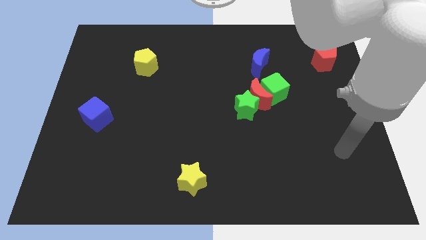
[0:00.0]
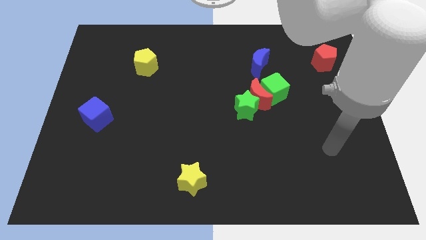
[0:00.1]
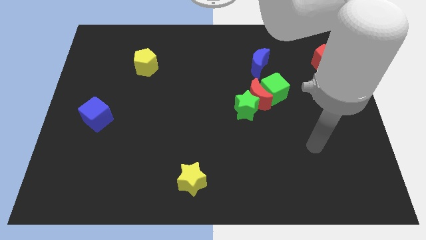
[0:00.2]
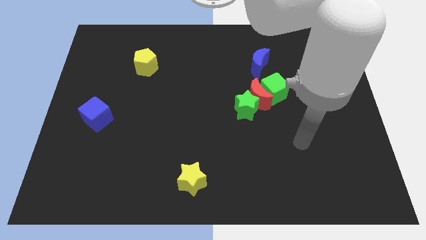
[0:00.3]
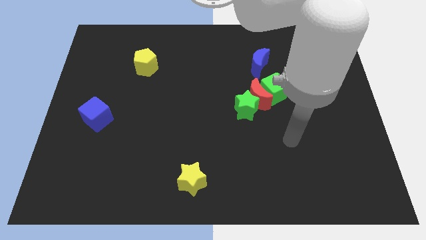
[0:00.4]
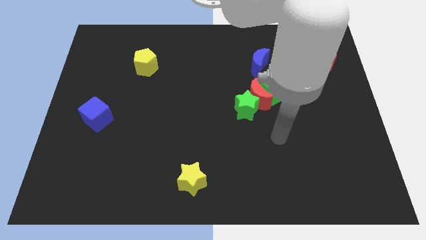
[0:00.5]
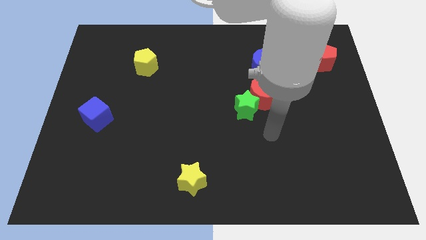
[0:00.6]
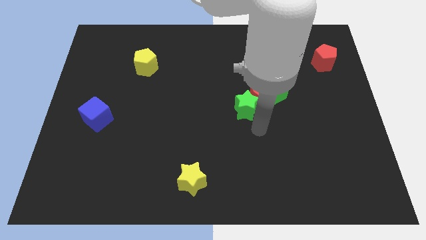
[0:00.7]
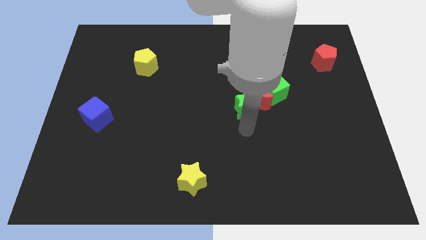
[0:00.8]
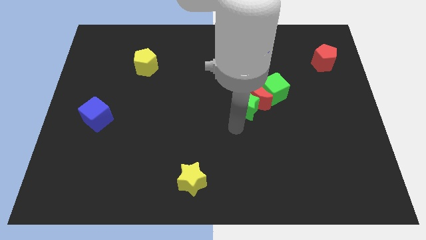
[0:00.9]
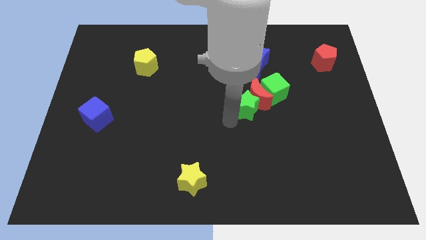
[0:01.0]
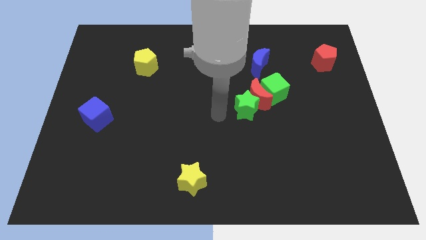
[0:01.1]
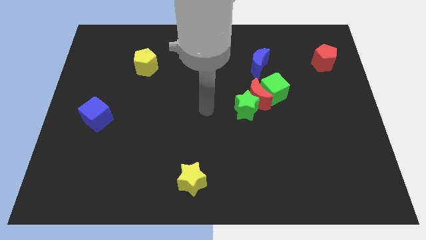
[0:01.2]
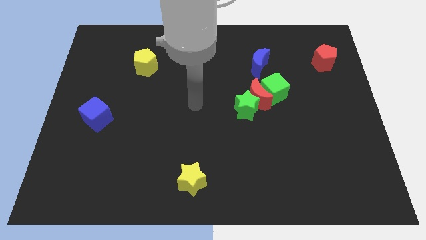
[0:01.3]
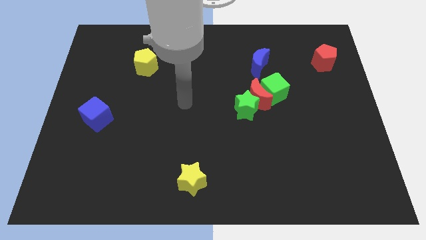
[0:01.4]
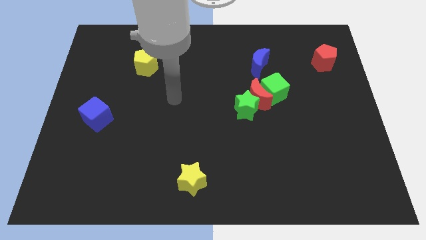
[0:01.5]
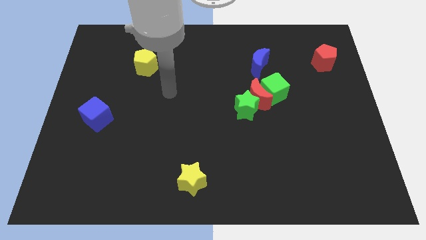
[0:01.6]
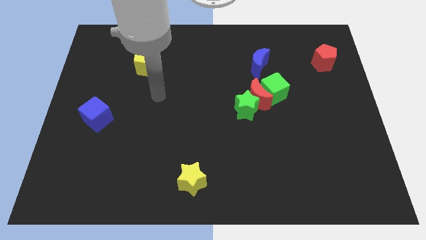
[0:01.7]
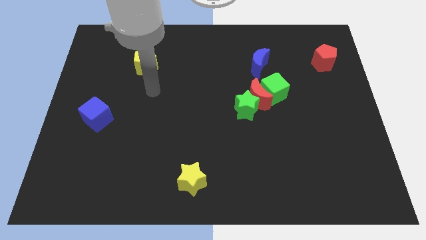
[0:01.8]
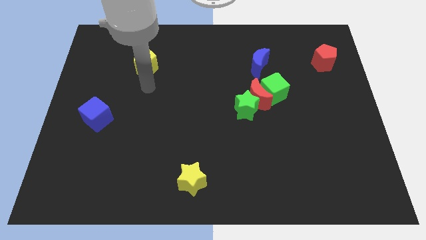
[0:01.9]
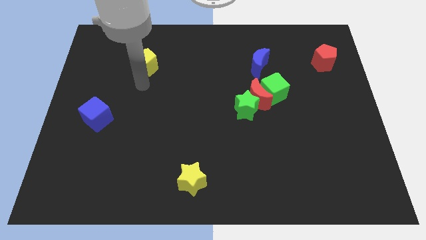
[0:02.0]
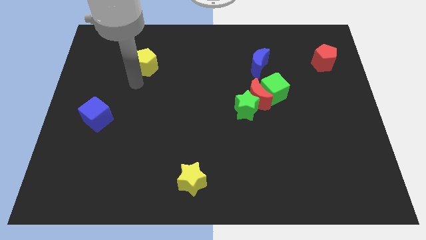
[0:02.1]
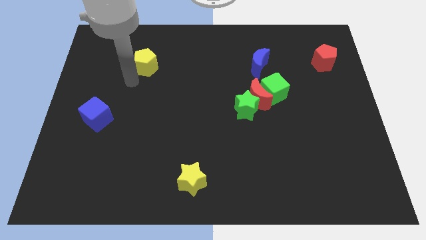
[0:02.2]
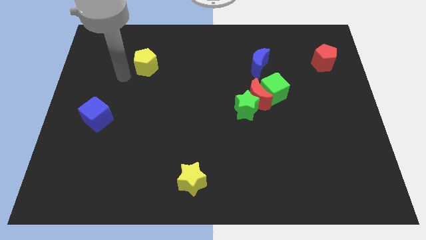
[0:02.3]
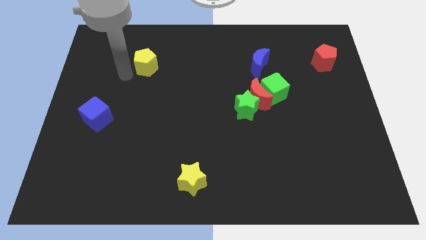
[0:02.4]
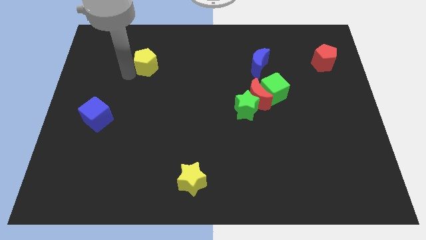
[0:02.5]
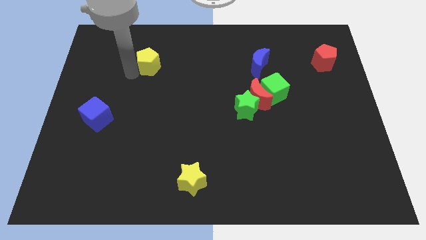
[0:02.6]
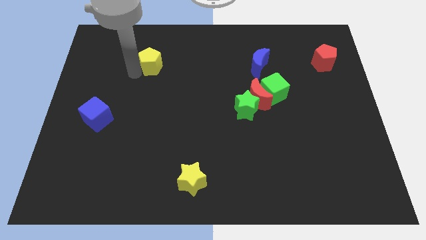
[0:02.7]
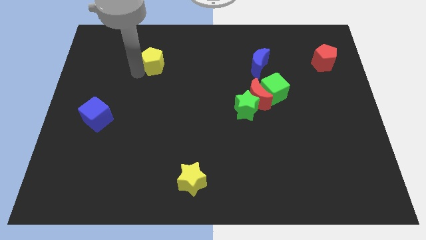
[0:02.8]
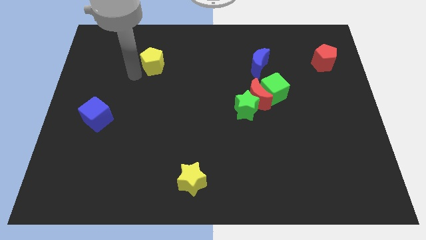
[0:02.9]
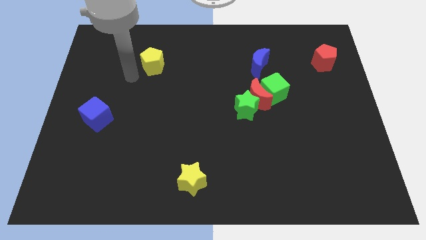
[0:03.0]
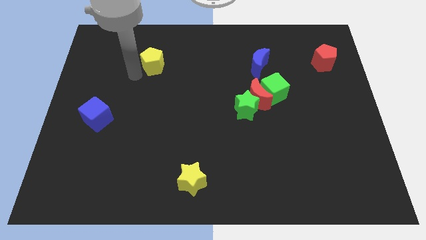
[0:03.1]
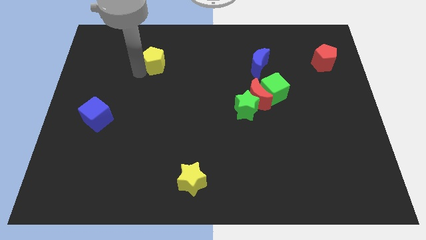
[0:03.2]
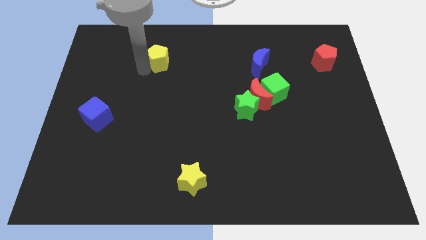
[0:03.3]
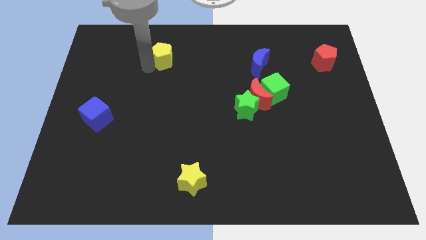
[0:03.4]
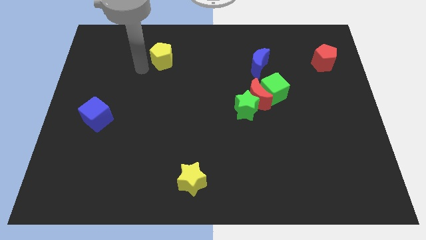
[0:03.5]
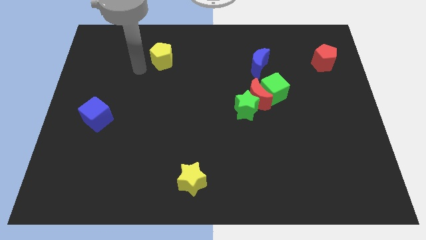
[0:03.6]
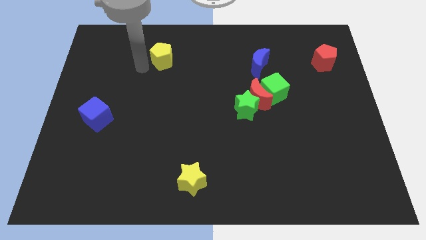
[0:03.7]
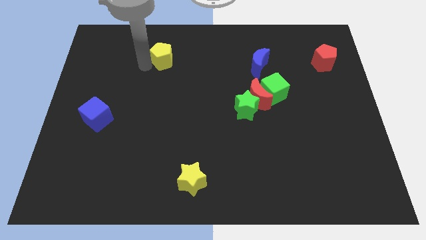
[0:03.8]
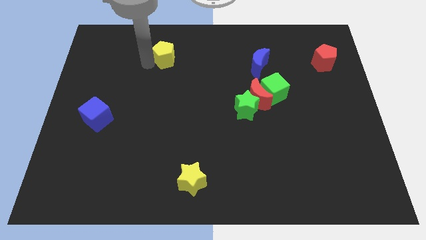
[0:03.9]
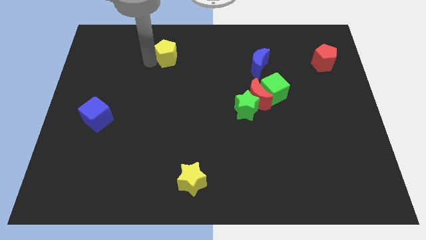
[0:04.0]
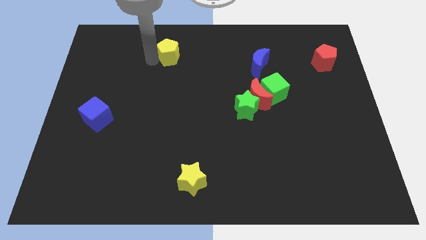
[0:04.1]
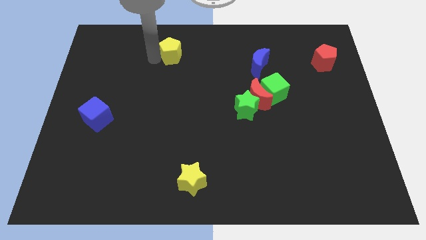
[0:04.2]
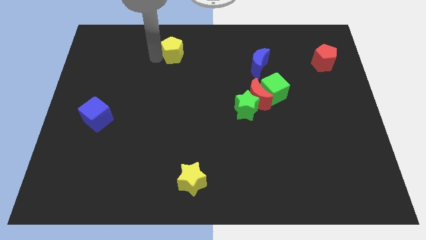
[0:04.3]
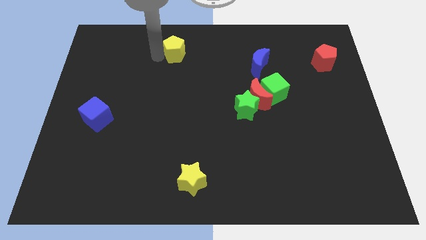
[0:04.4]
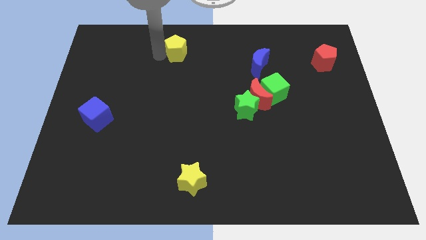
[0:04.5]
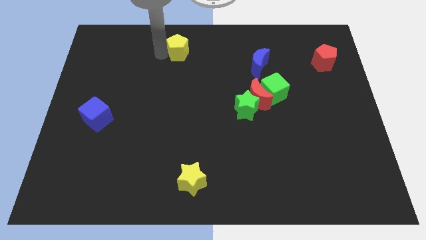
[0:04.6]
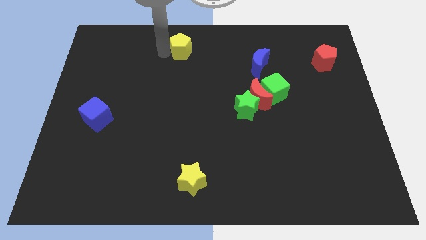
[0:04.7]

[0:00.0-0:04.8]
slide the yellow pentagon to the top side

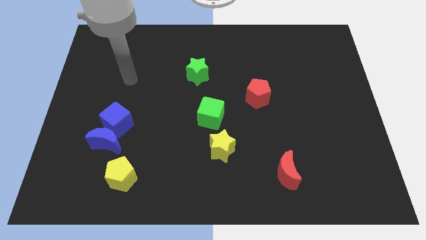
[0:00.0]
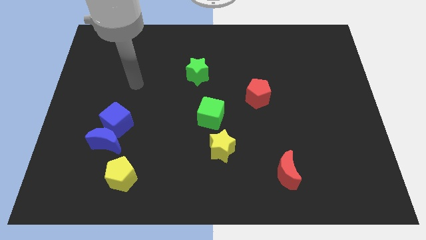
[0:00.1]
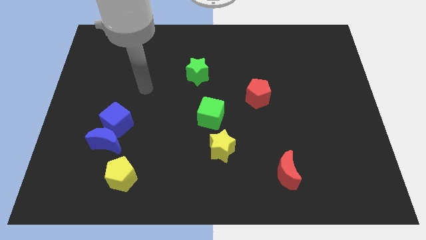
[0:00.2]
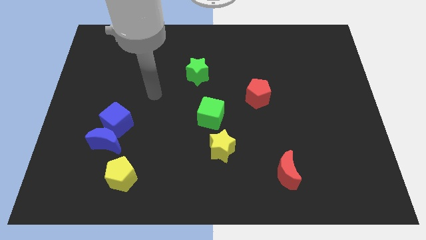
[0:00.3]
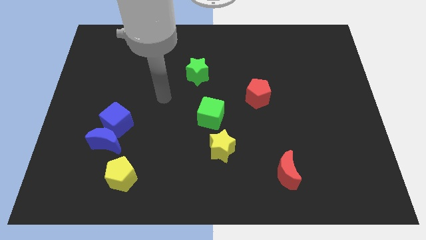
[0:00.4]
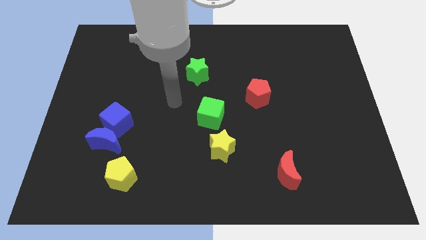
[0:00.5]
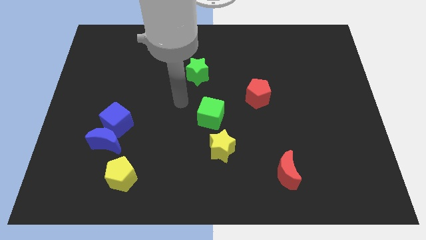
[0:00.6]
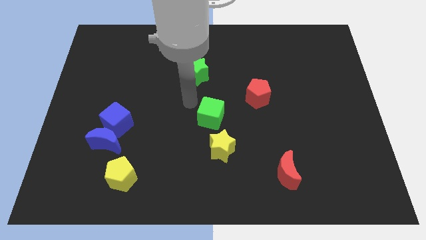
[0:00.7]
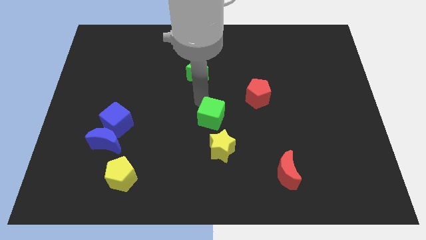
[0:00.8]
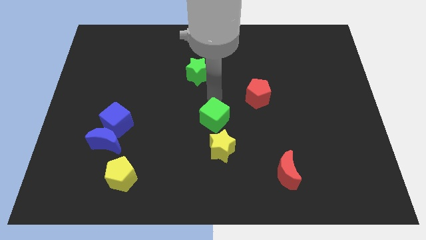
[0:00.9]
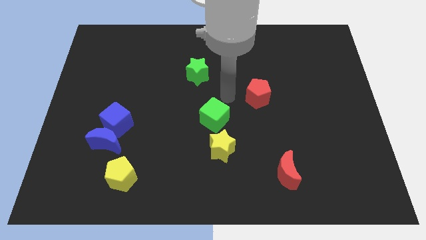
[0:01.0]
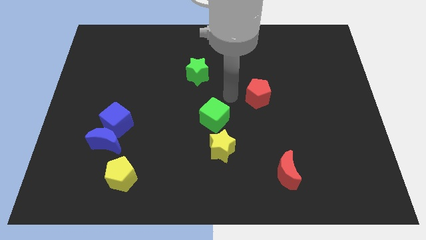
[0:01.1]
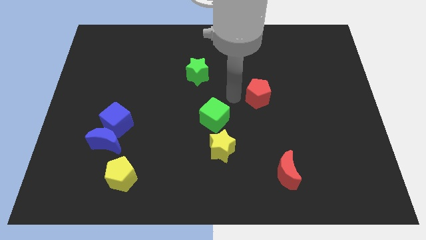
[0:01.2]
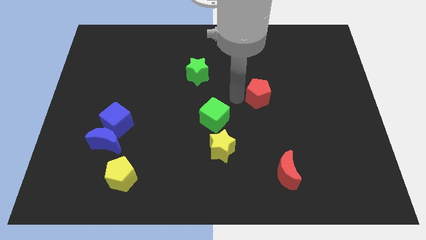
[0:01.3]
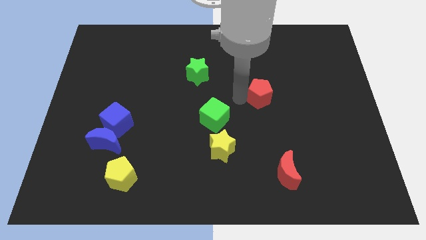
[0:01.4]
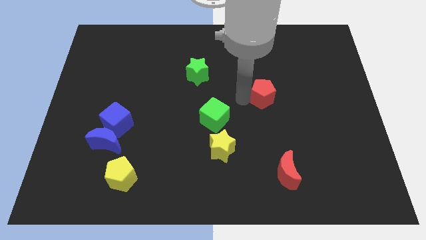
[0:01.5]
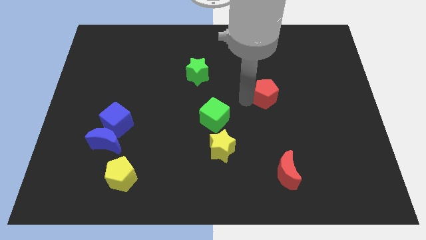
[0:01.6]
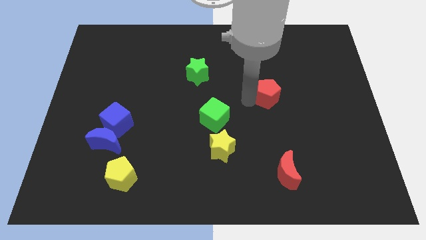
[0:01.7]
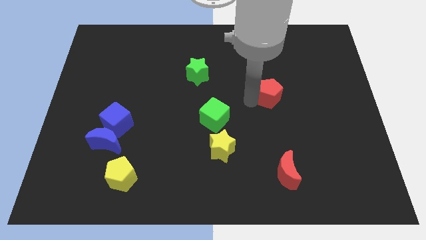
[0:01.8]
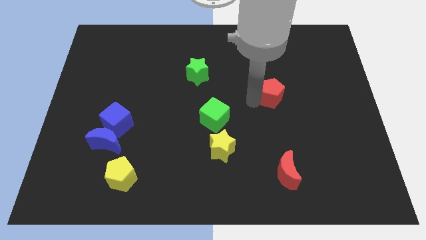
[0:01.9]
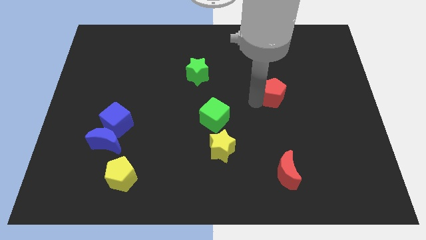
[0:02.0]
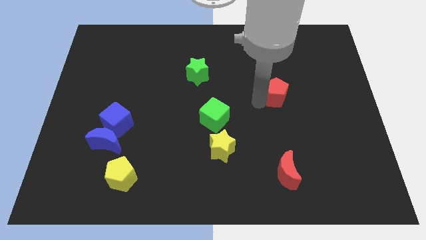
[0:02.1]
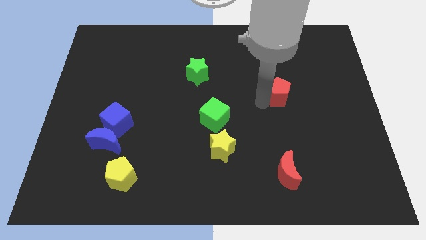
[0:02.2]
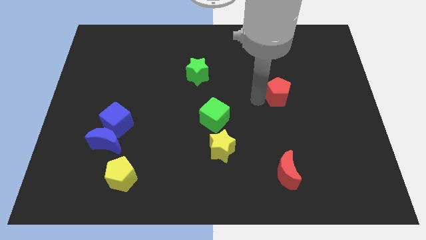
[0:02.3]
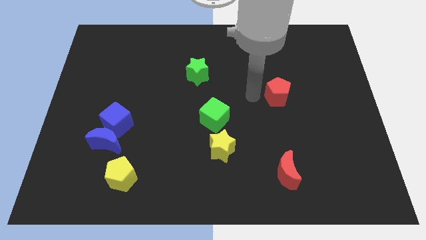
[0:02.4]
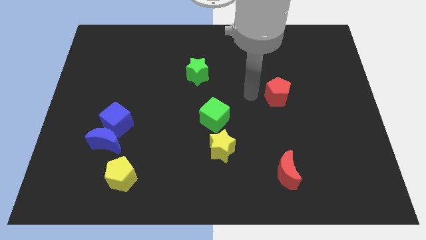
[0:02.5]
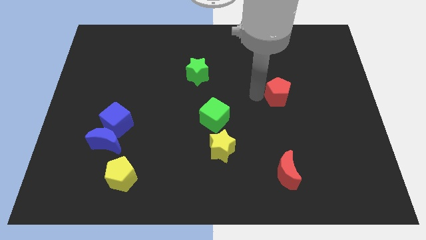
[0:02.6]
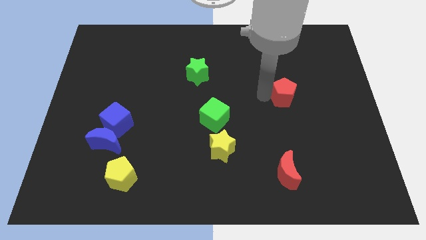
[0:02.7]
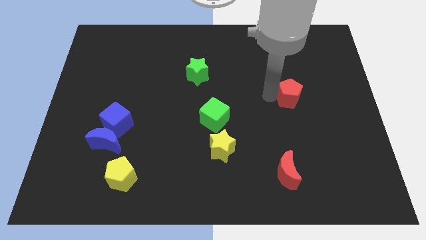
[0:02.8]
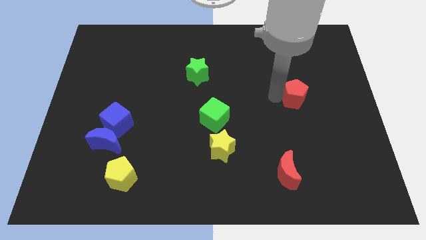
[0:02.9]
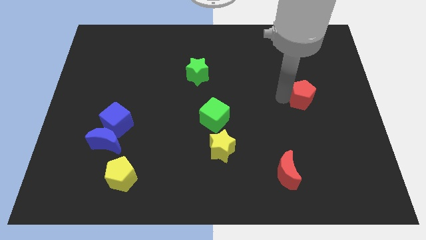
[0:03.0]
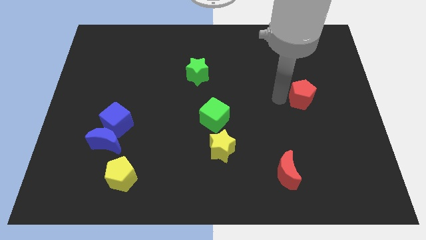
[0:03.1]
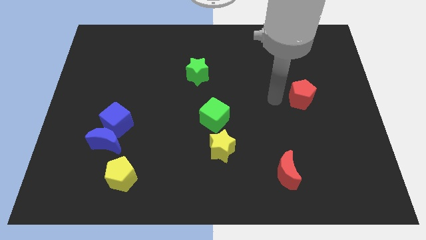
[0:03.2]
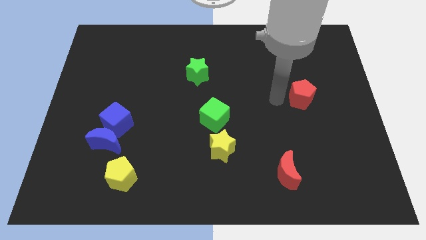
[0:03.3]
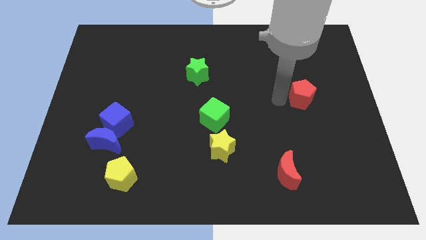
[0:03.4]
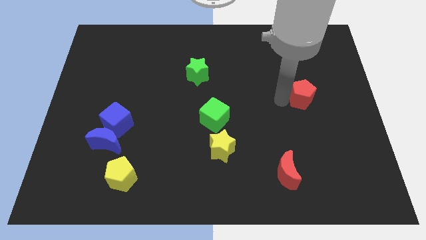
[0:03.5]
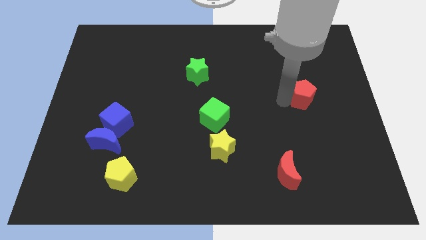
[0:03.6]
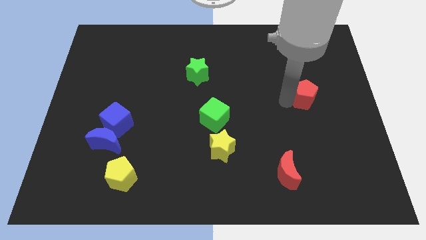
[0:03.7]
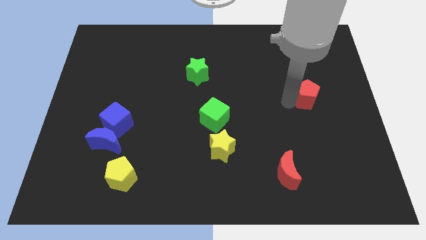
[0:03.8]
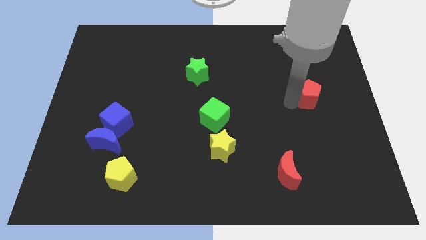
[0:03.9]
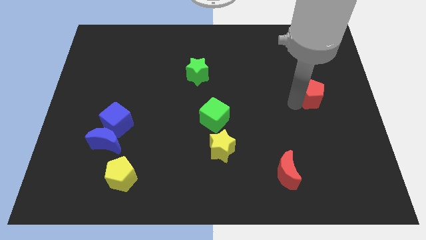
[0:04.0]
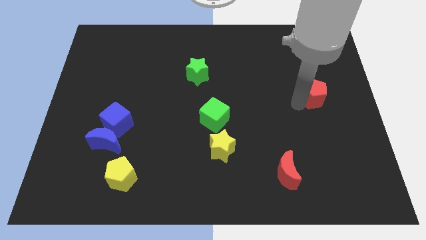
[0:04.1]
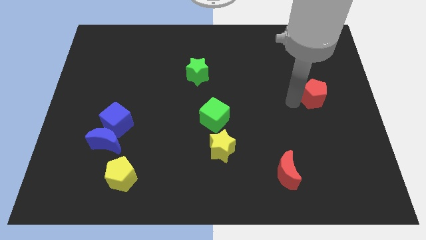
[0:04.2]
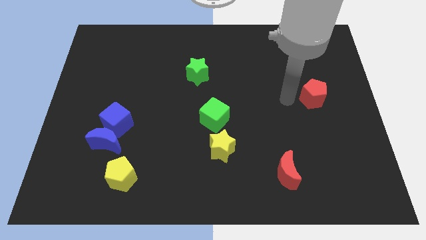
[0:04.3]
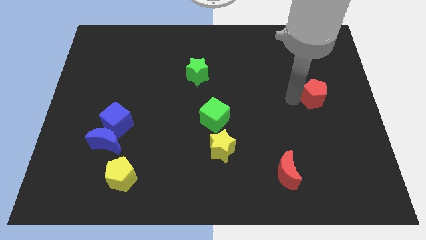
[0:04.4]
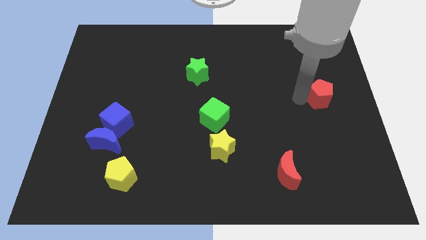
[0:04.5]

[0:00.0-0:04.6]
put the red pentagon to the right side of the board
